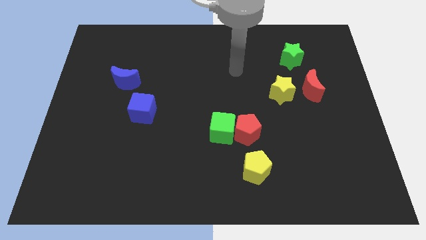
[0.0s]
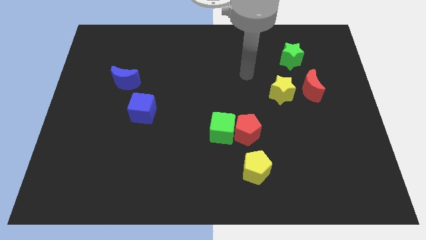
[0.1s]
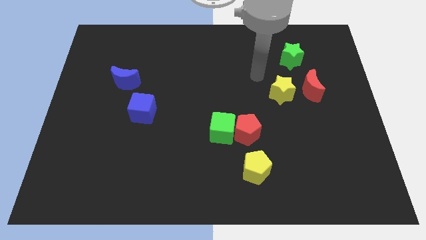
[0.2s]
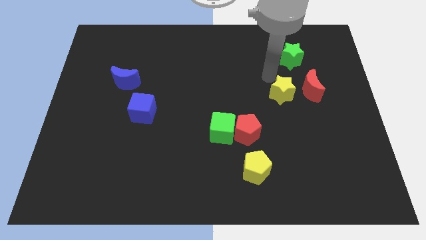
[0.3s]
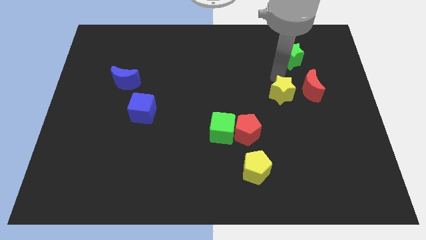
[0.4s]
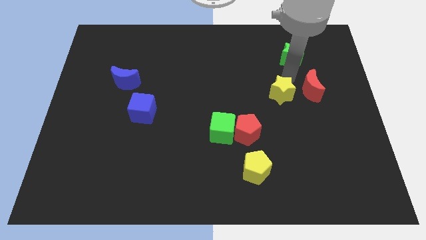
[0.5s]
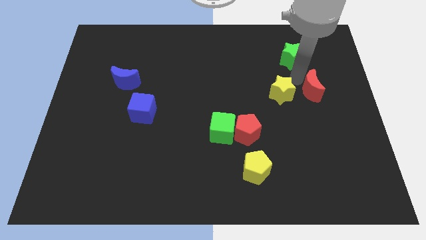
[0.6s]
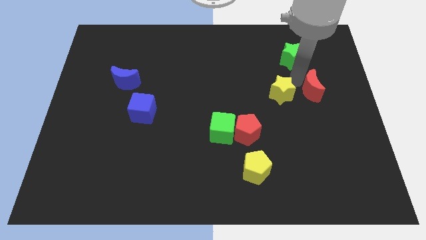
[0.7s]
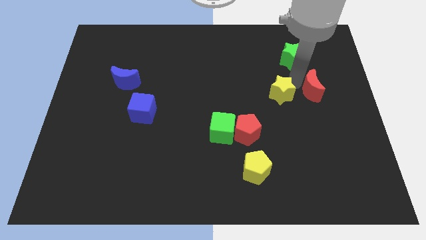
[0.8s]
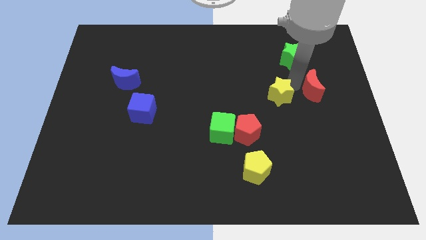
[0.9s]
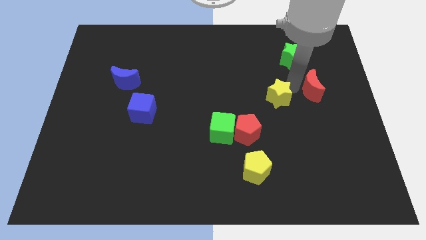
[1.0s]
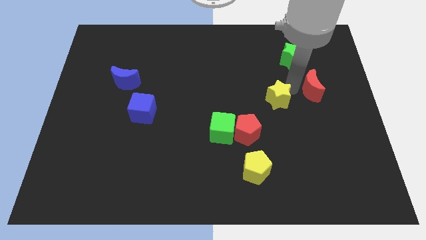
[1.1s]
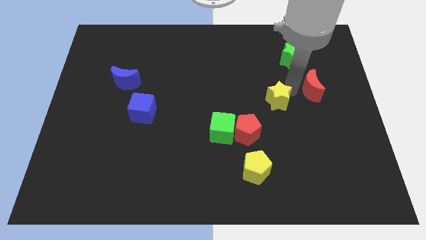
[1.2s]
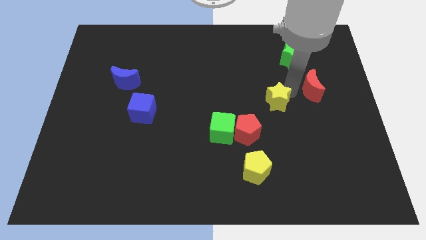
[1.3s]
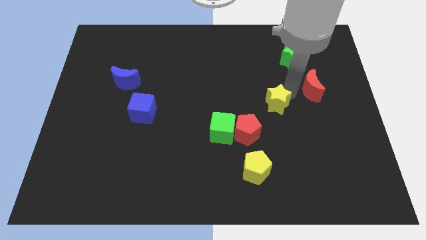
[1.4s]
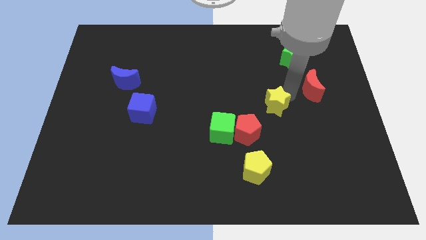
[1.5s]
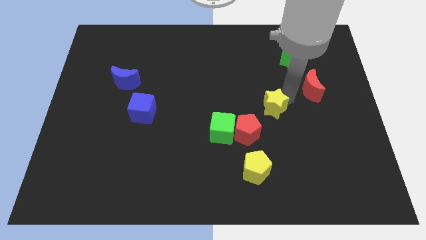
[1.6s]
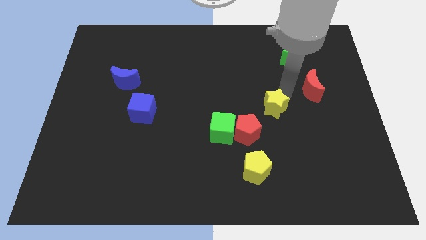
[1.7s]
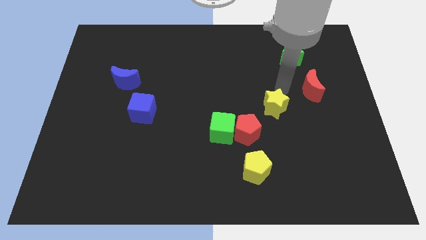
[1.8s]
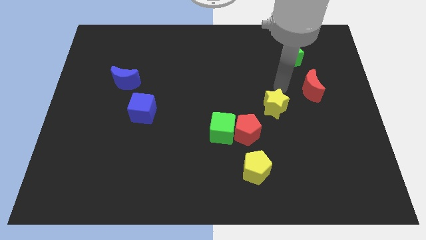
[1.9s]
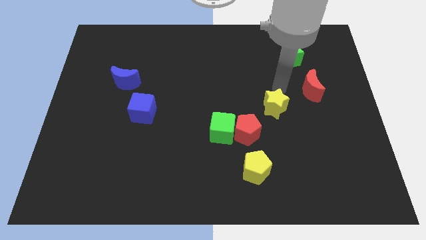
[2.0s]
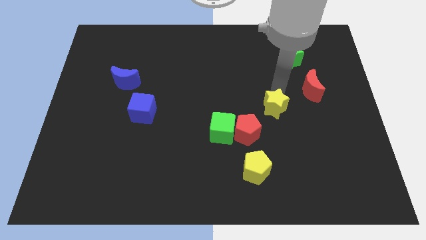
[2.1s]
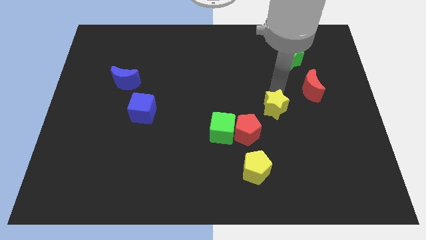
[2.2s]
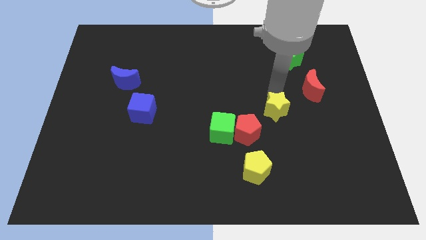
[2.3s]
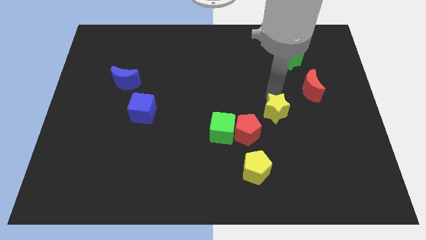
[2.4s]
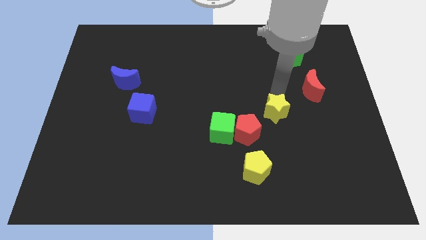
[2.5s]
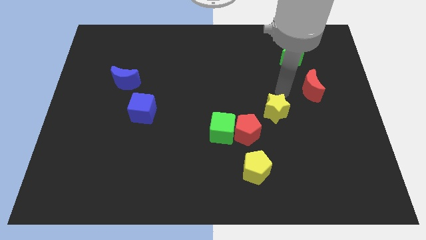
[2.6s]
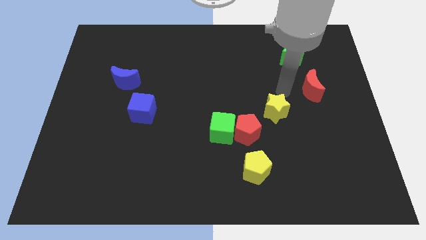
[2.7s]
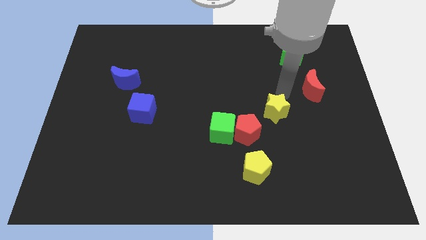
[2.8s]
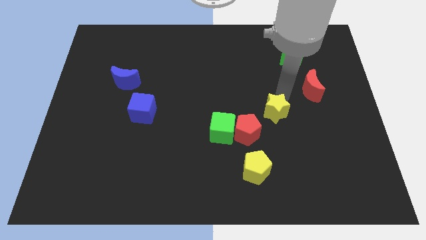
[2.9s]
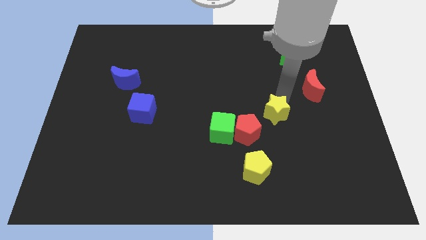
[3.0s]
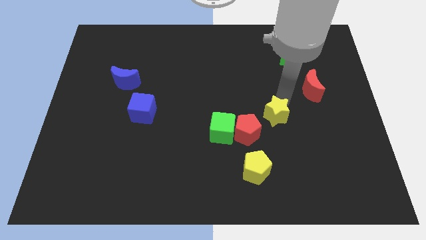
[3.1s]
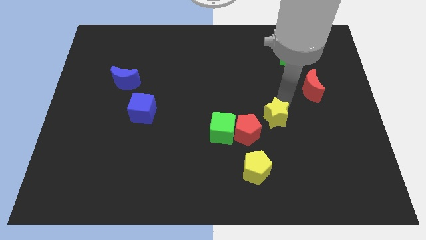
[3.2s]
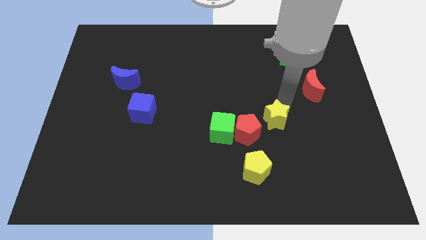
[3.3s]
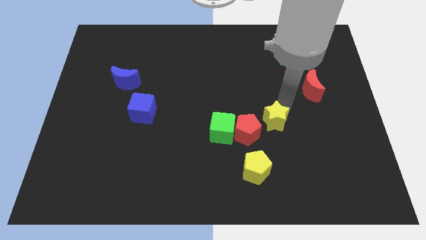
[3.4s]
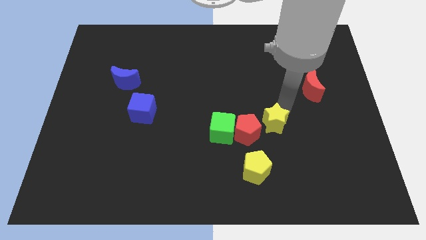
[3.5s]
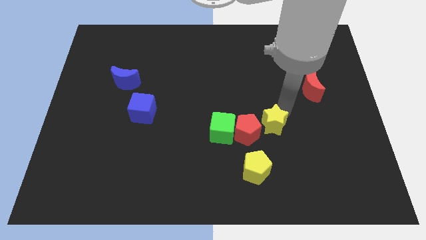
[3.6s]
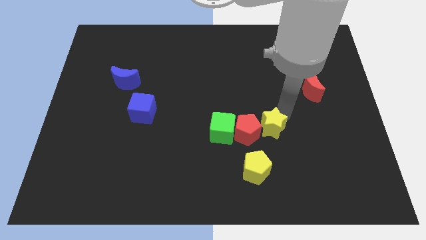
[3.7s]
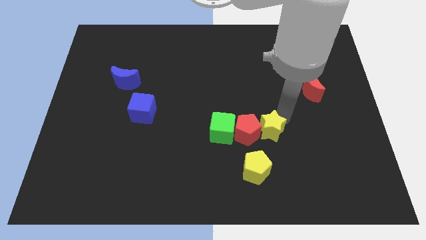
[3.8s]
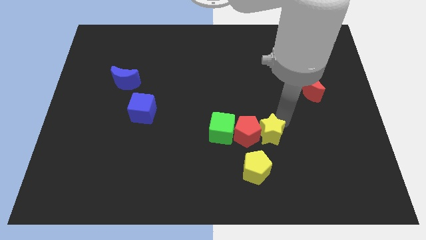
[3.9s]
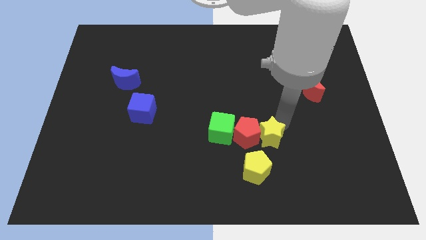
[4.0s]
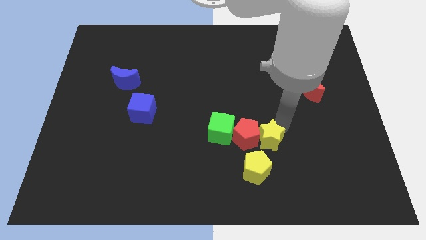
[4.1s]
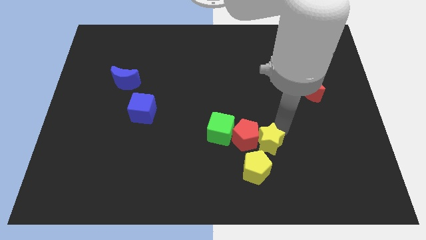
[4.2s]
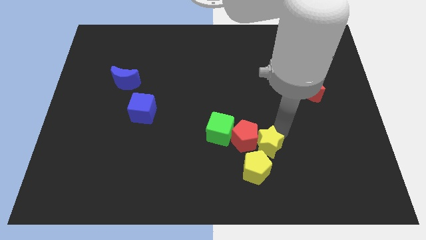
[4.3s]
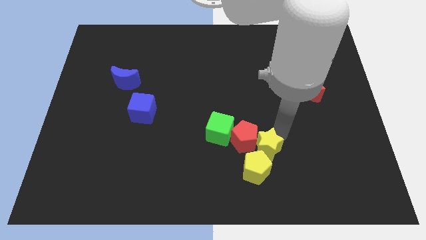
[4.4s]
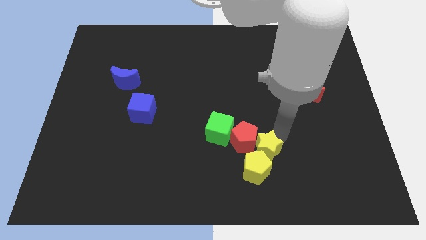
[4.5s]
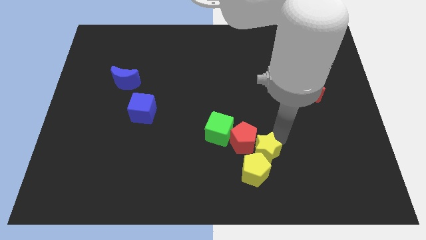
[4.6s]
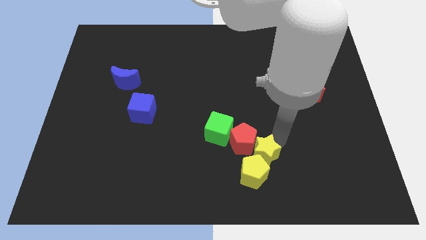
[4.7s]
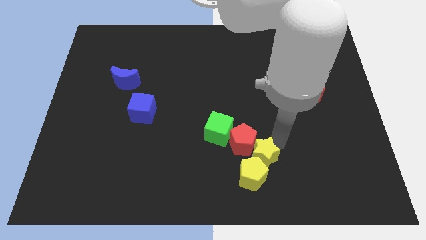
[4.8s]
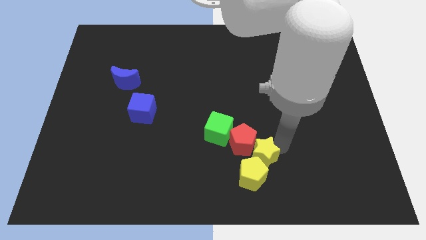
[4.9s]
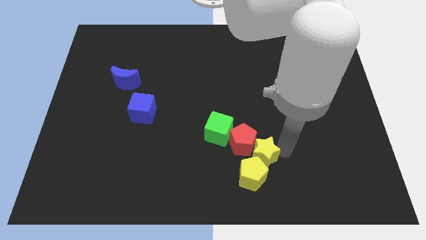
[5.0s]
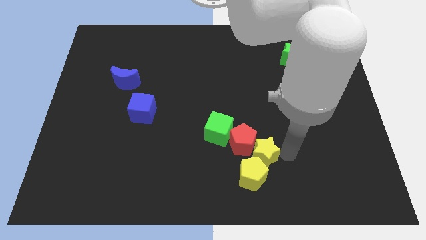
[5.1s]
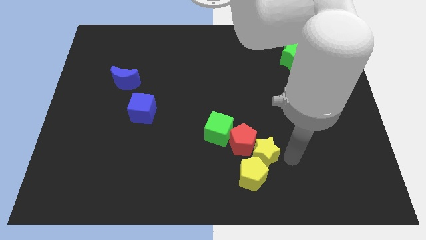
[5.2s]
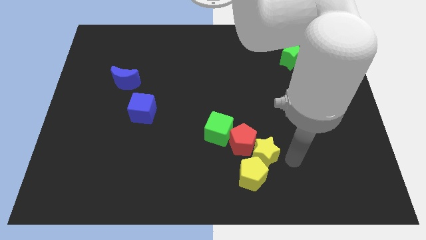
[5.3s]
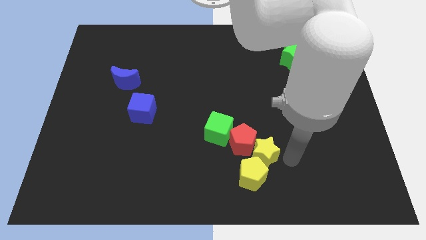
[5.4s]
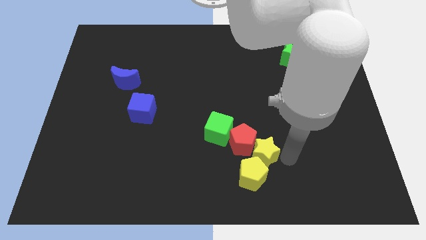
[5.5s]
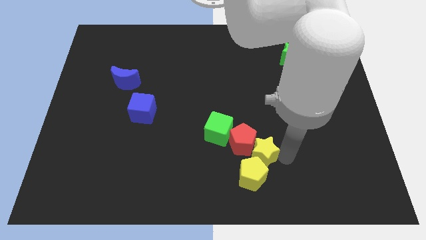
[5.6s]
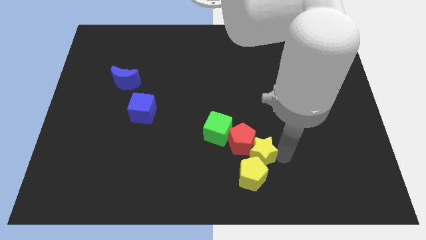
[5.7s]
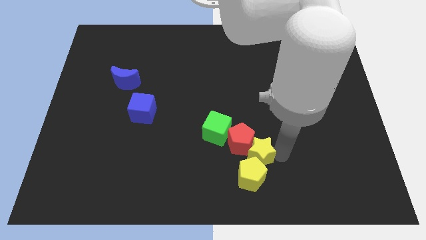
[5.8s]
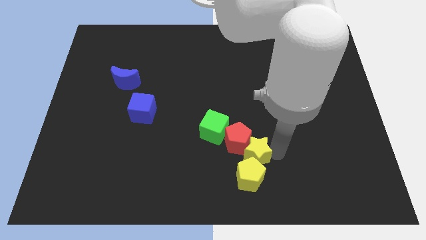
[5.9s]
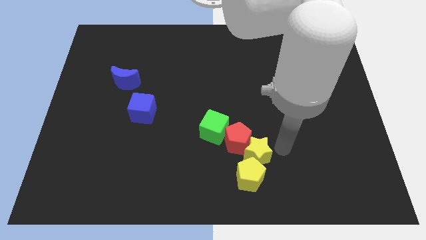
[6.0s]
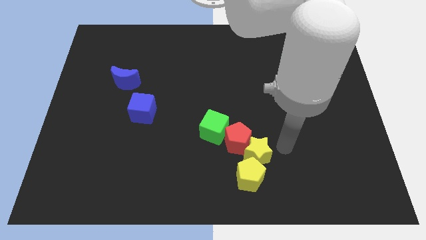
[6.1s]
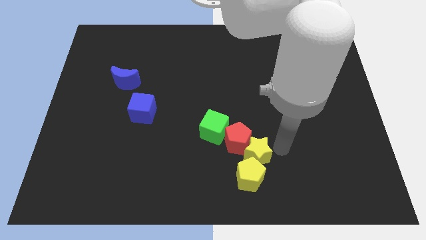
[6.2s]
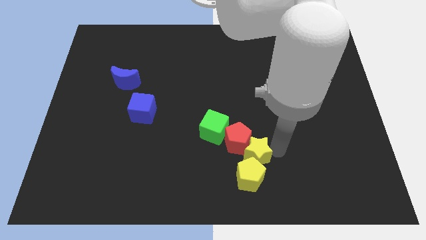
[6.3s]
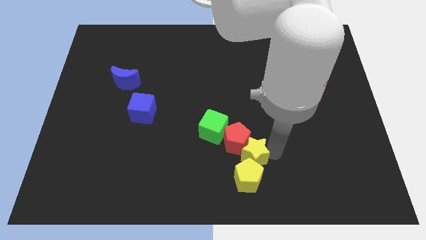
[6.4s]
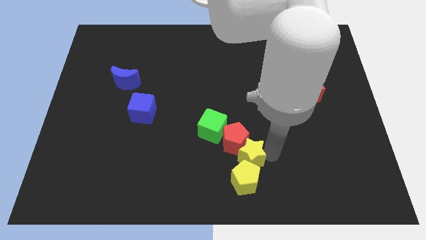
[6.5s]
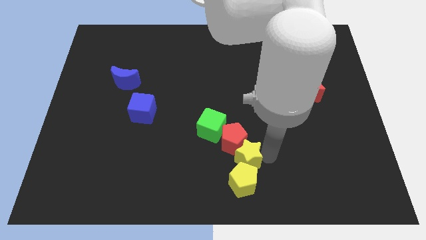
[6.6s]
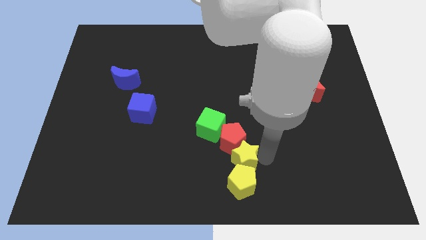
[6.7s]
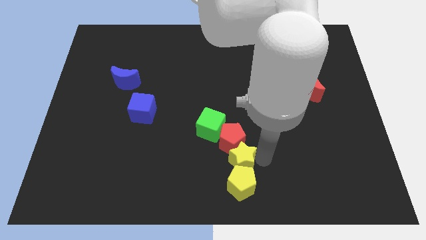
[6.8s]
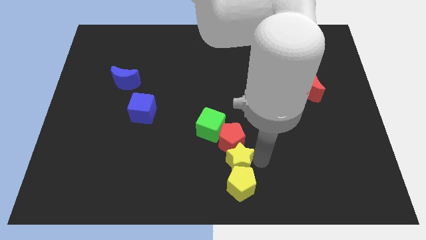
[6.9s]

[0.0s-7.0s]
move the yellow star downwards and then to the left

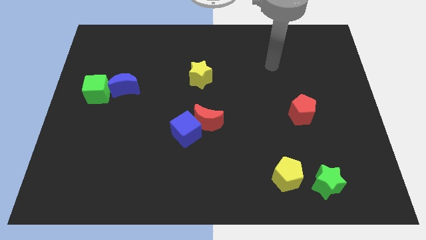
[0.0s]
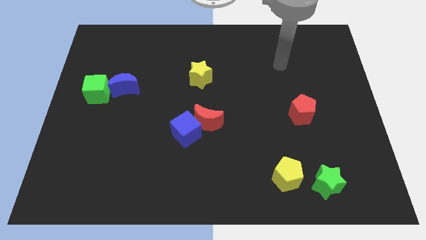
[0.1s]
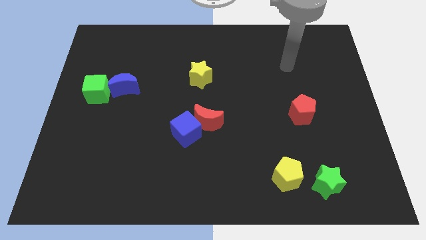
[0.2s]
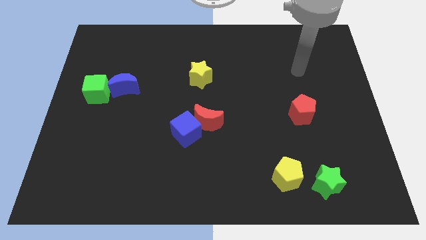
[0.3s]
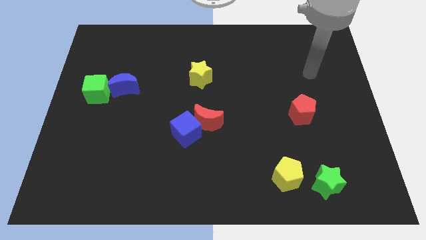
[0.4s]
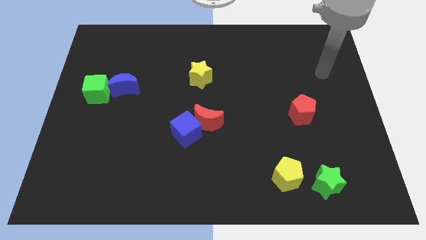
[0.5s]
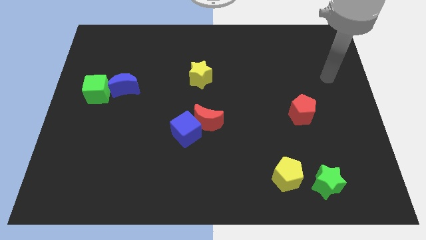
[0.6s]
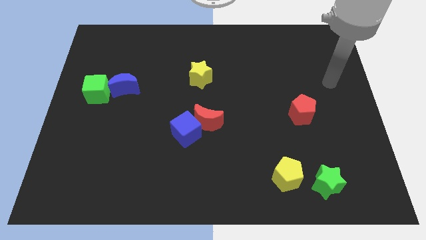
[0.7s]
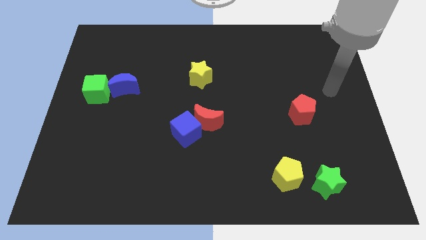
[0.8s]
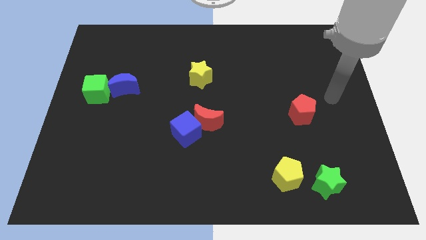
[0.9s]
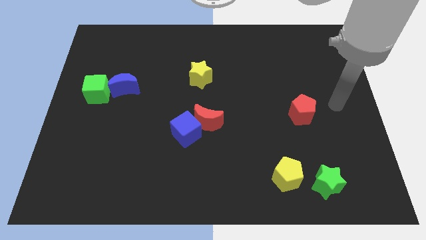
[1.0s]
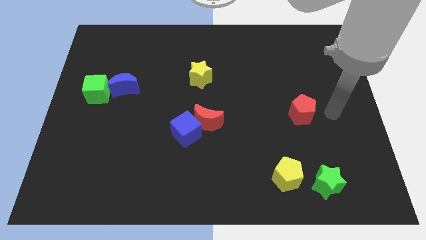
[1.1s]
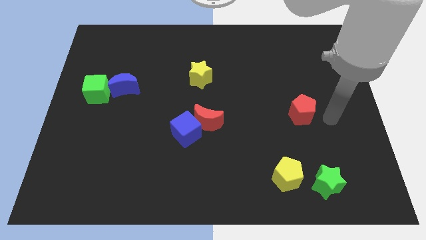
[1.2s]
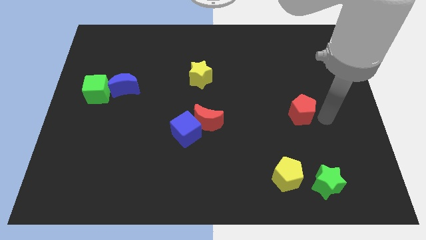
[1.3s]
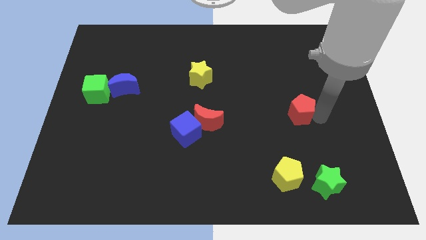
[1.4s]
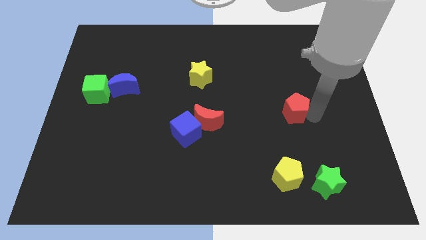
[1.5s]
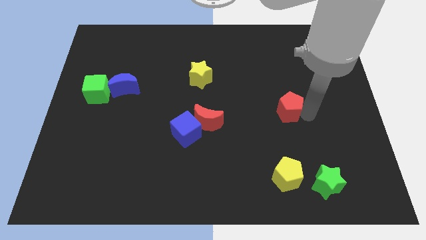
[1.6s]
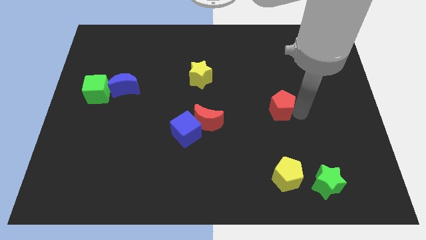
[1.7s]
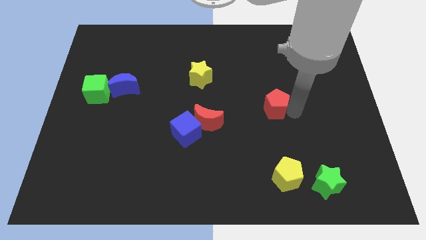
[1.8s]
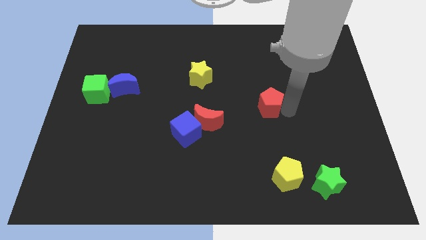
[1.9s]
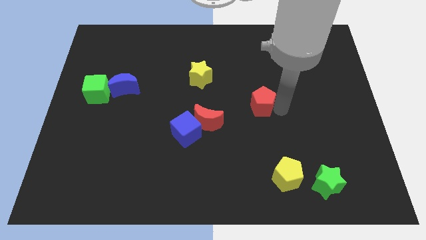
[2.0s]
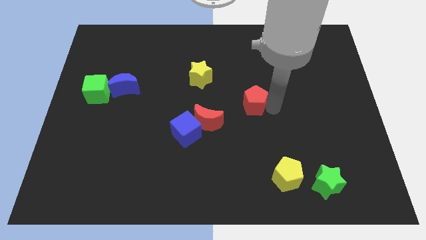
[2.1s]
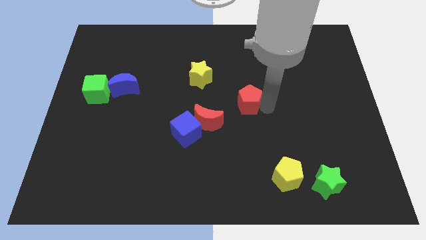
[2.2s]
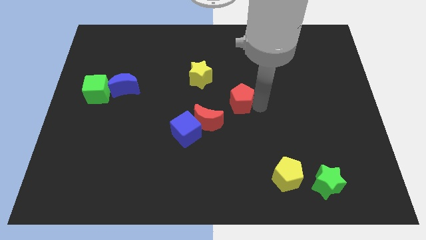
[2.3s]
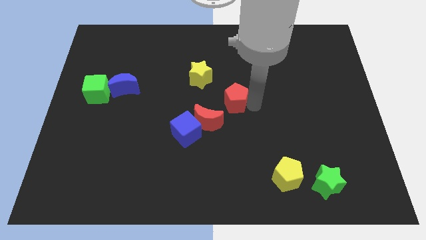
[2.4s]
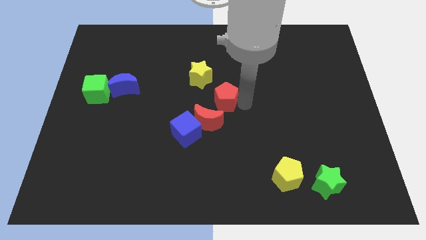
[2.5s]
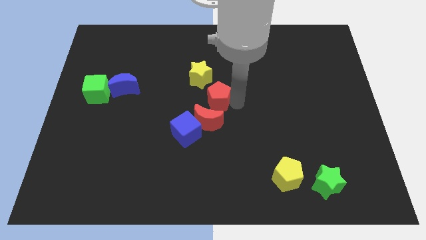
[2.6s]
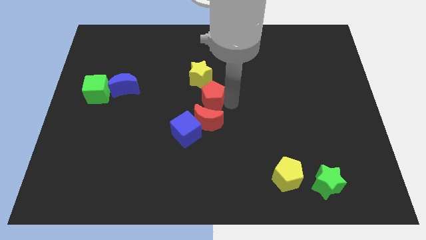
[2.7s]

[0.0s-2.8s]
move the red pentagon left
